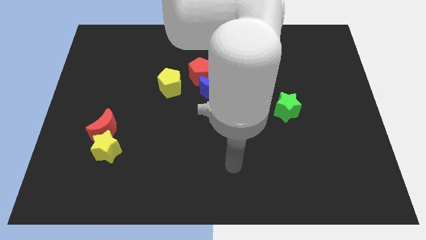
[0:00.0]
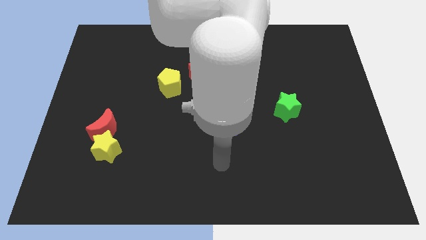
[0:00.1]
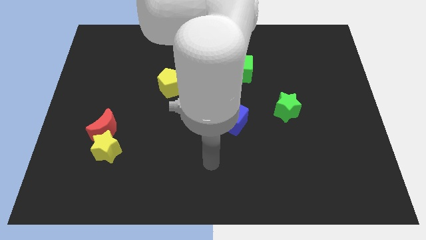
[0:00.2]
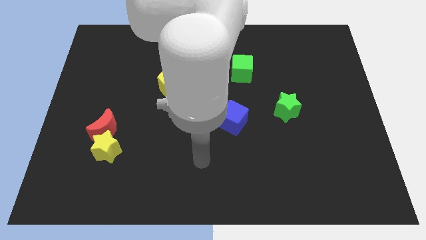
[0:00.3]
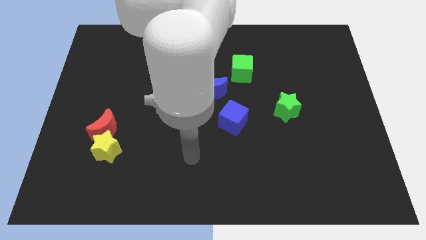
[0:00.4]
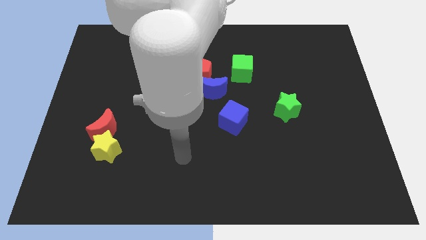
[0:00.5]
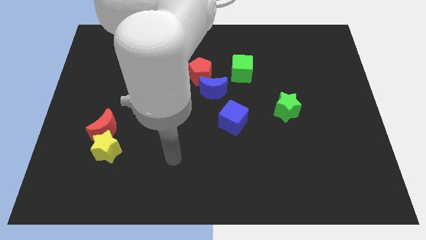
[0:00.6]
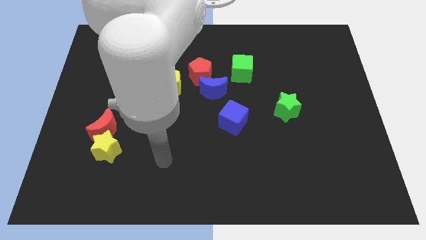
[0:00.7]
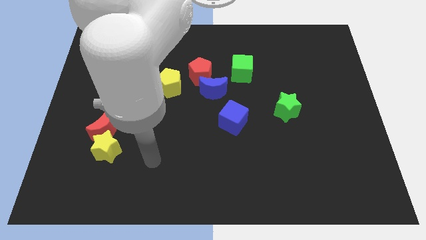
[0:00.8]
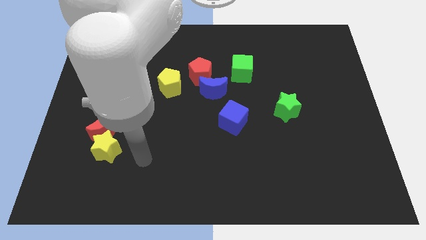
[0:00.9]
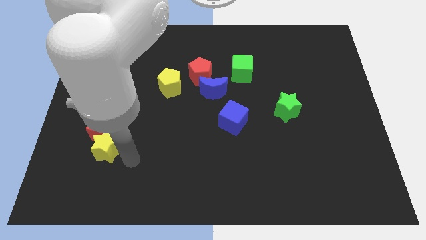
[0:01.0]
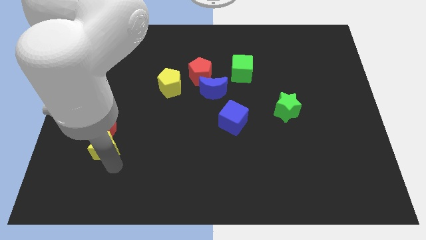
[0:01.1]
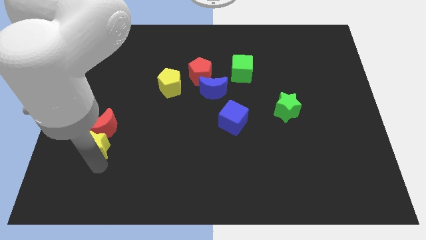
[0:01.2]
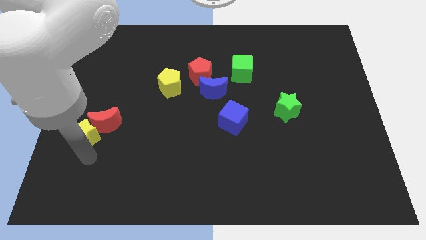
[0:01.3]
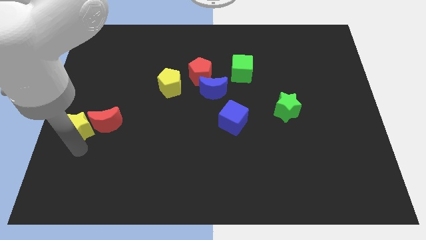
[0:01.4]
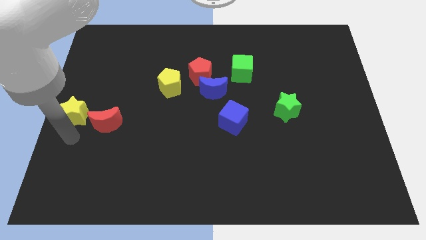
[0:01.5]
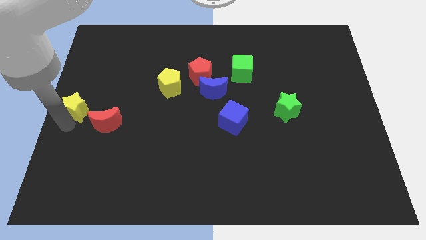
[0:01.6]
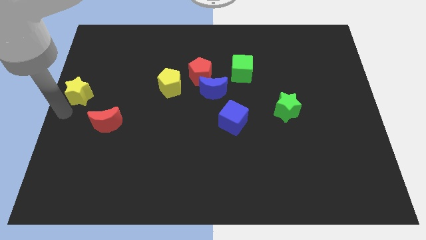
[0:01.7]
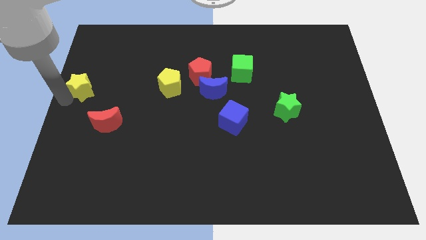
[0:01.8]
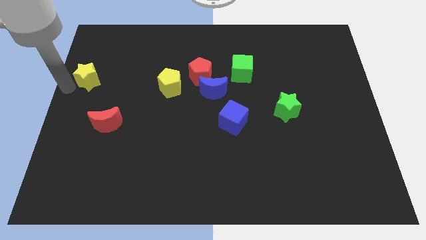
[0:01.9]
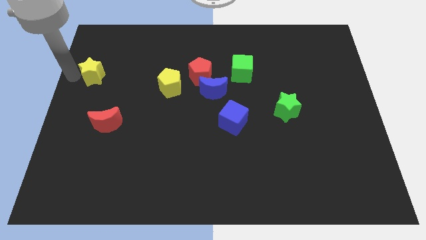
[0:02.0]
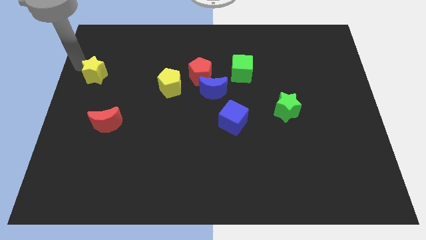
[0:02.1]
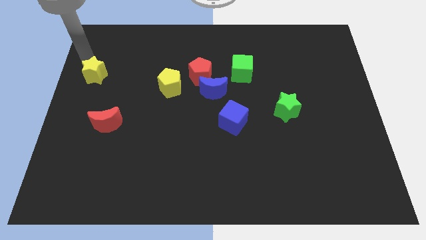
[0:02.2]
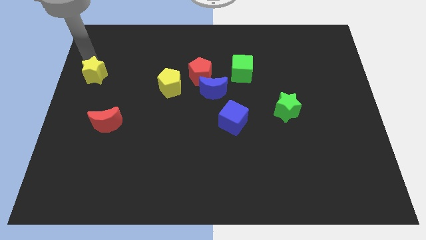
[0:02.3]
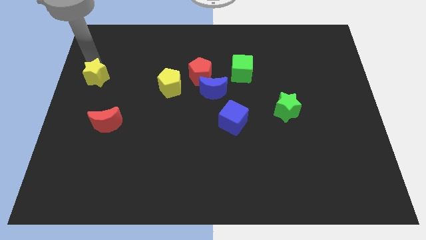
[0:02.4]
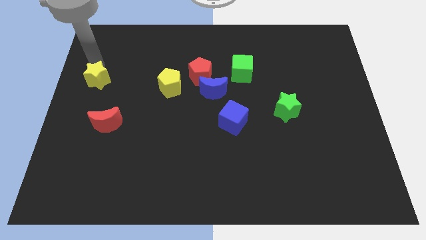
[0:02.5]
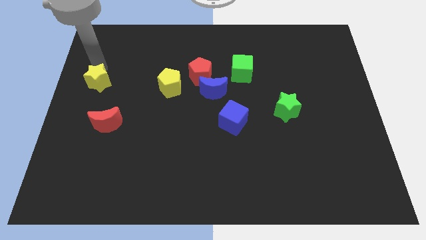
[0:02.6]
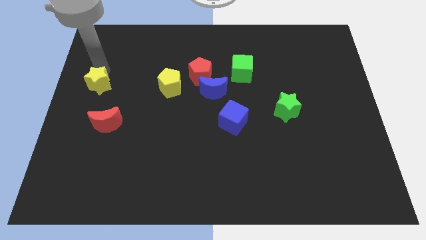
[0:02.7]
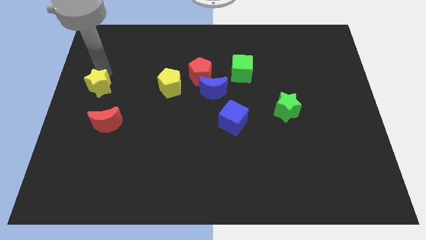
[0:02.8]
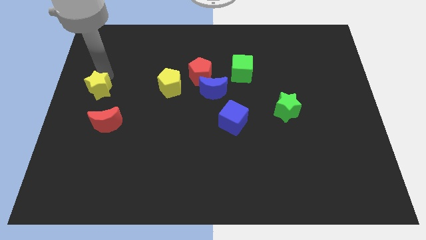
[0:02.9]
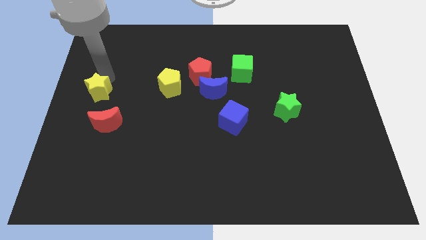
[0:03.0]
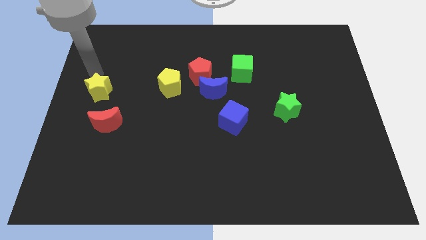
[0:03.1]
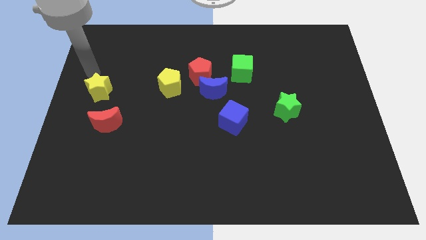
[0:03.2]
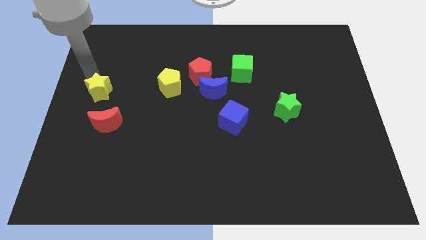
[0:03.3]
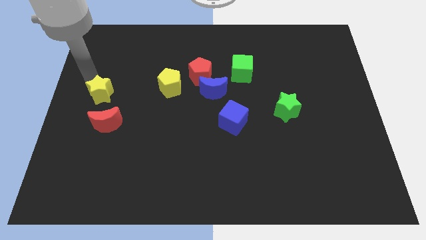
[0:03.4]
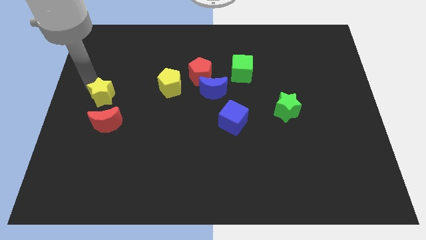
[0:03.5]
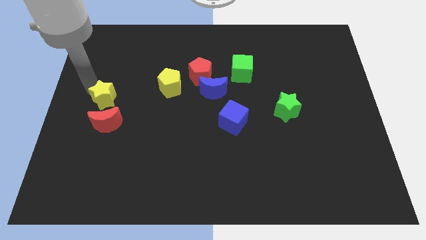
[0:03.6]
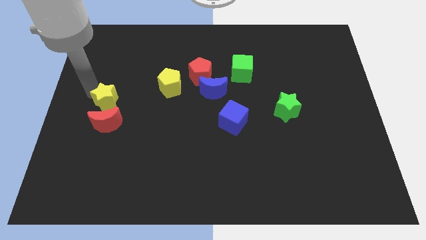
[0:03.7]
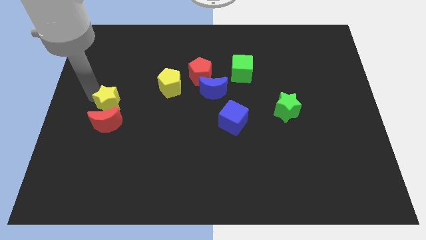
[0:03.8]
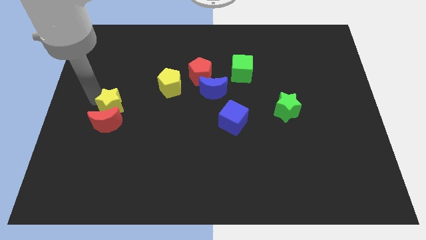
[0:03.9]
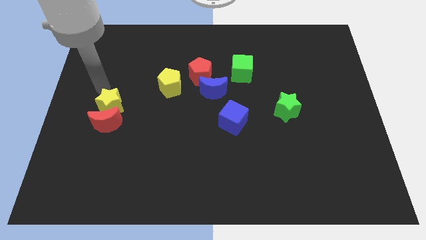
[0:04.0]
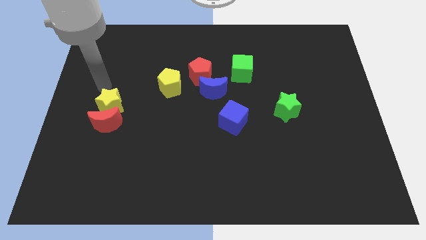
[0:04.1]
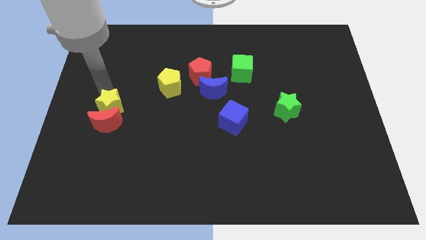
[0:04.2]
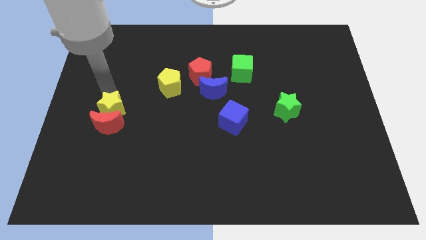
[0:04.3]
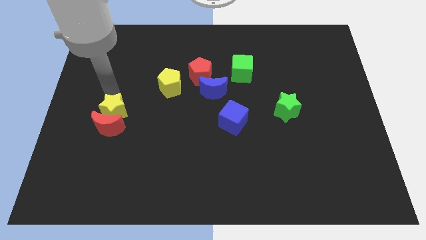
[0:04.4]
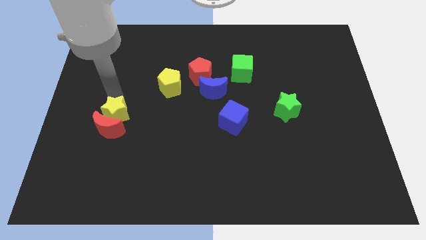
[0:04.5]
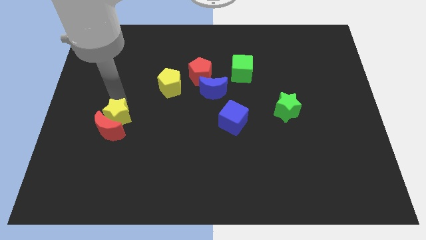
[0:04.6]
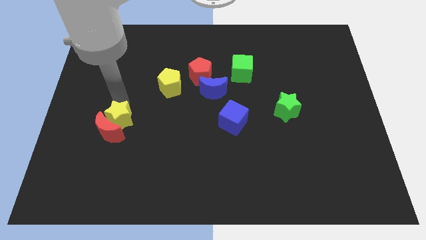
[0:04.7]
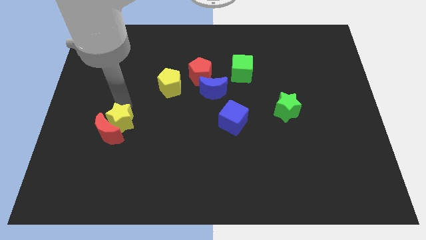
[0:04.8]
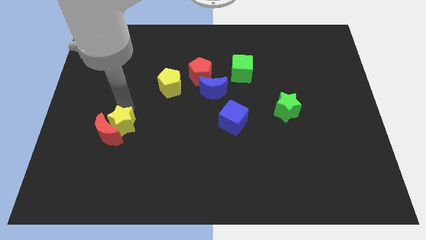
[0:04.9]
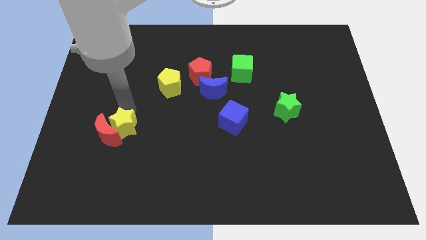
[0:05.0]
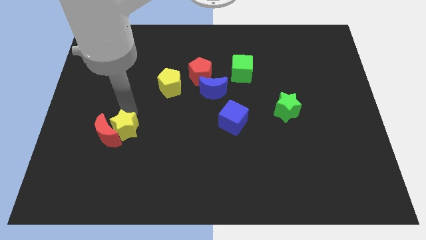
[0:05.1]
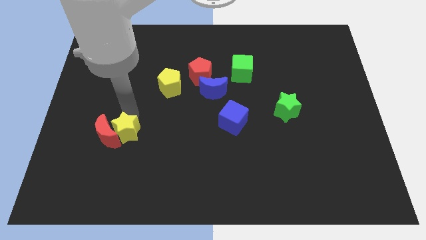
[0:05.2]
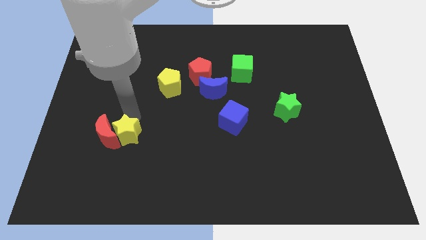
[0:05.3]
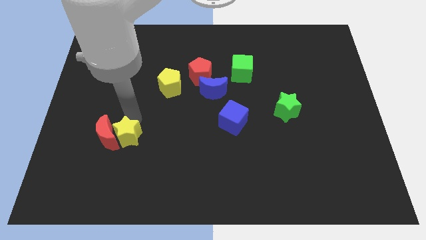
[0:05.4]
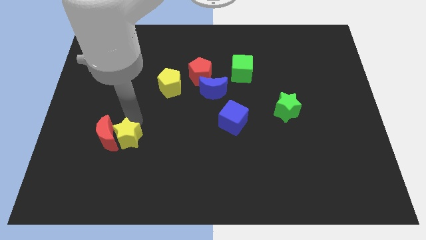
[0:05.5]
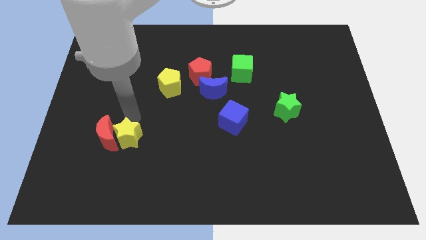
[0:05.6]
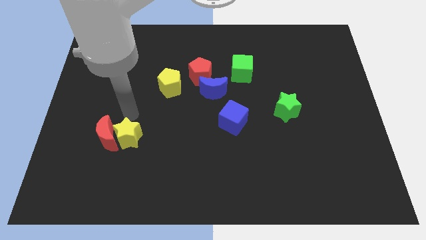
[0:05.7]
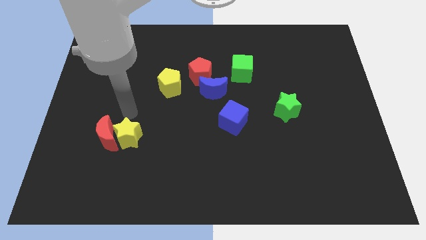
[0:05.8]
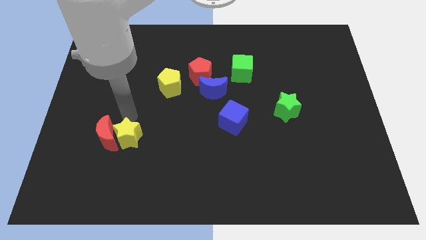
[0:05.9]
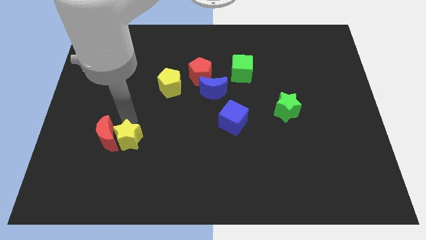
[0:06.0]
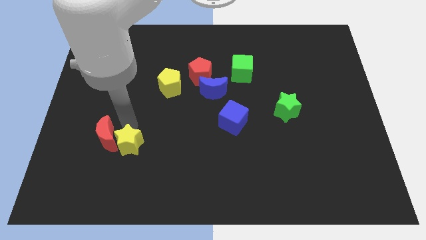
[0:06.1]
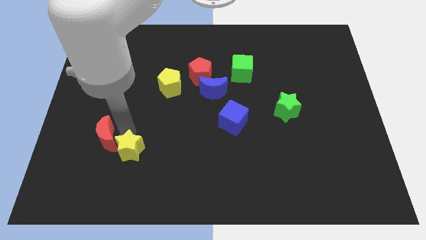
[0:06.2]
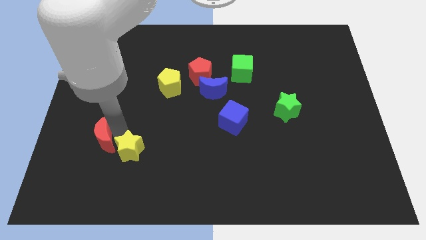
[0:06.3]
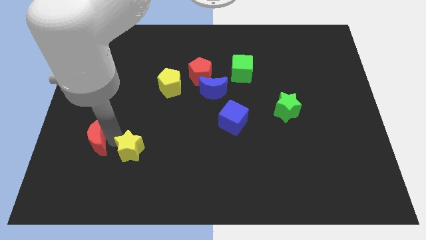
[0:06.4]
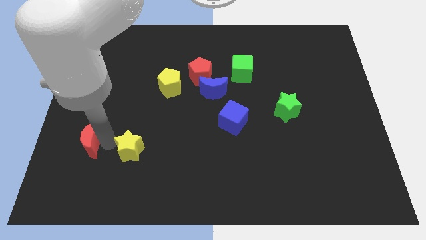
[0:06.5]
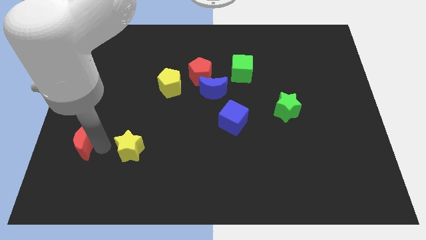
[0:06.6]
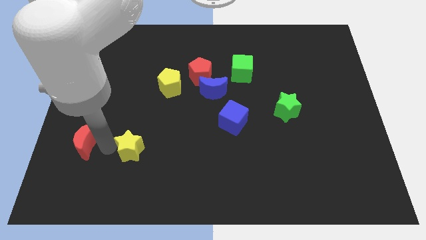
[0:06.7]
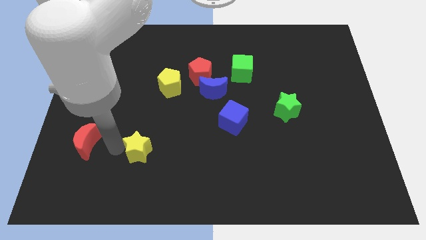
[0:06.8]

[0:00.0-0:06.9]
slightly move the yellow star right

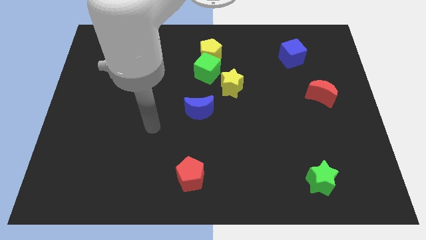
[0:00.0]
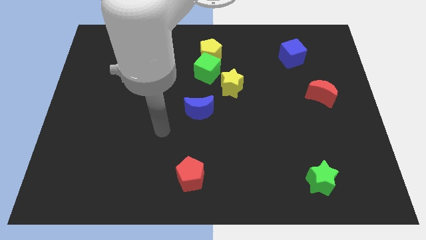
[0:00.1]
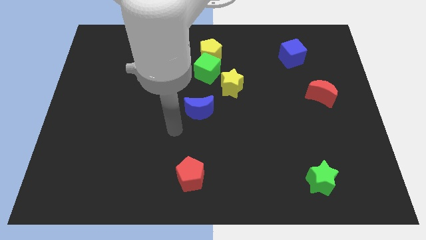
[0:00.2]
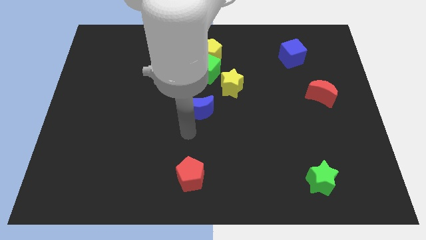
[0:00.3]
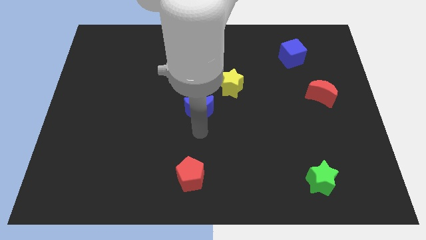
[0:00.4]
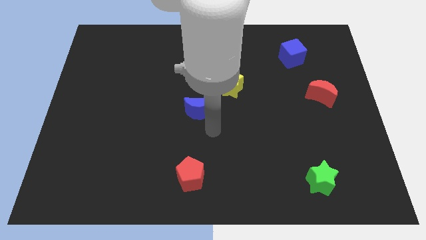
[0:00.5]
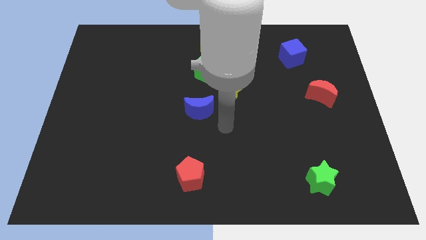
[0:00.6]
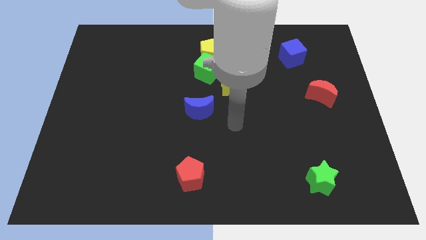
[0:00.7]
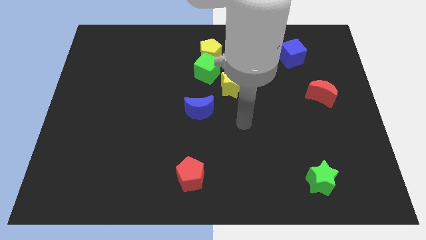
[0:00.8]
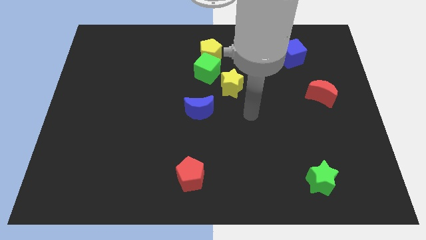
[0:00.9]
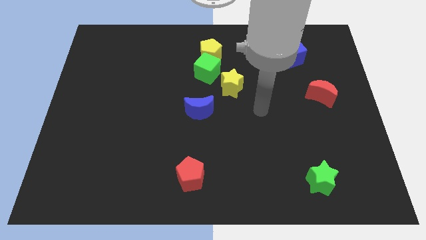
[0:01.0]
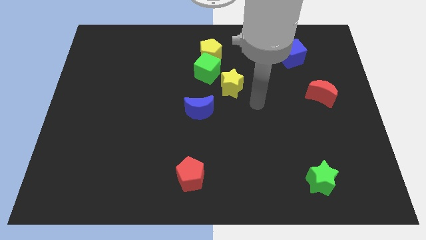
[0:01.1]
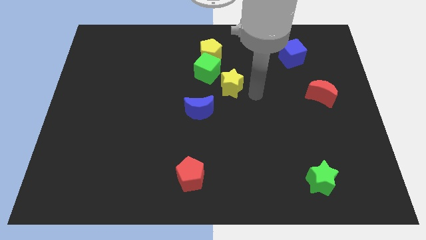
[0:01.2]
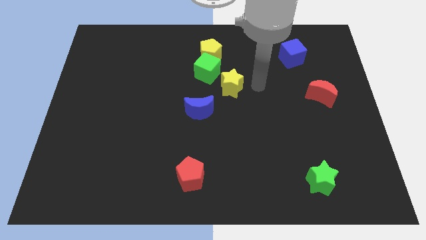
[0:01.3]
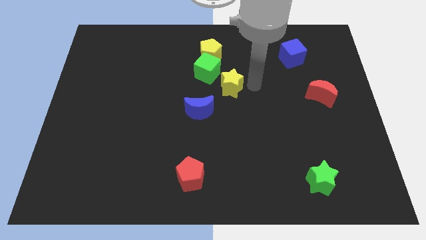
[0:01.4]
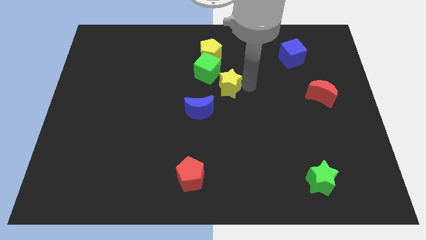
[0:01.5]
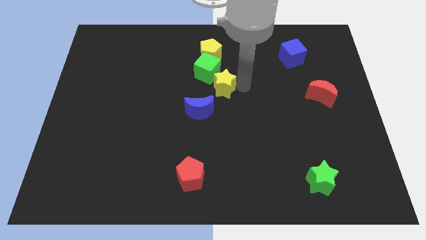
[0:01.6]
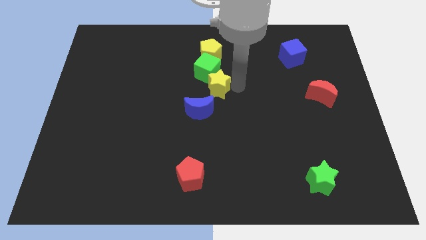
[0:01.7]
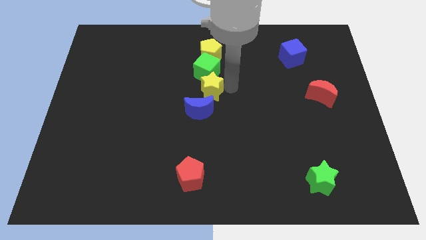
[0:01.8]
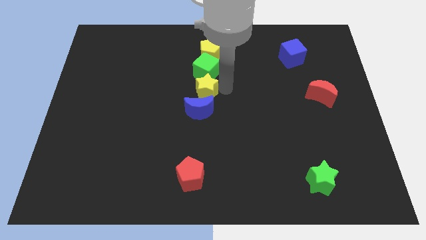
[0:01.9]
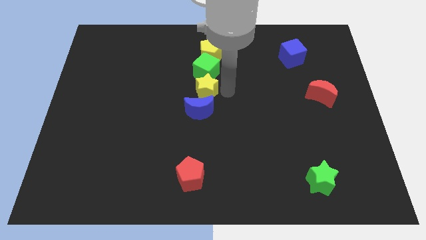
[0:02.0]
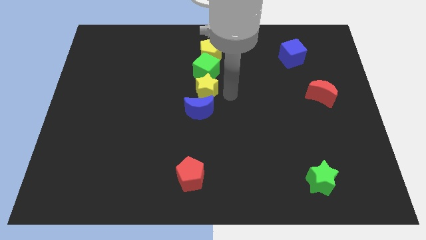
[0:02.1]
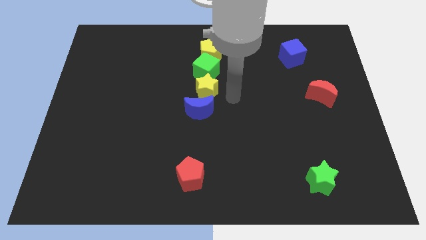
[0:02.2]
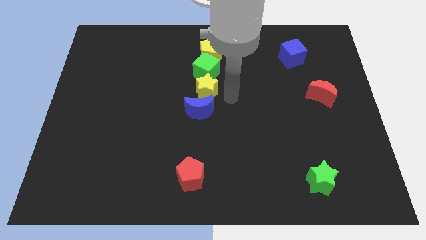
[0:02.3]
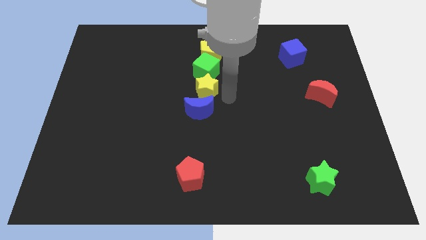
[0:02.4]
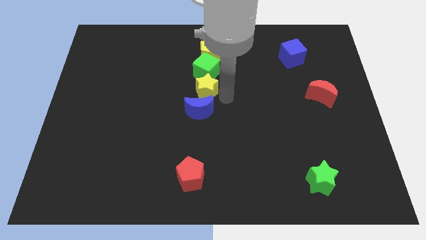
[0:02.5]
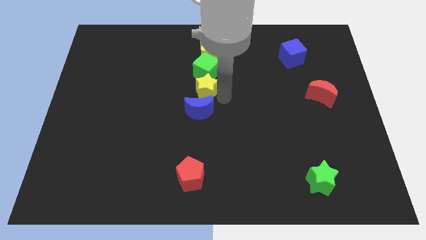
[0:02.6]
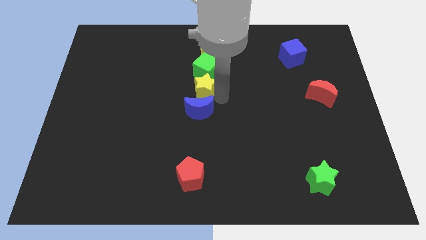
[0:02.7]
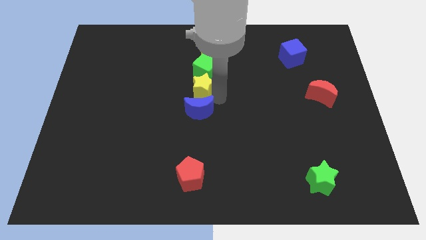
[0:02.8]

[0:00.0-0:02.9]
slide the yellow star left a little bit
